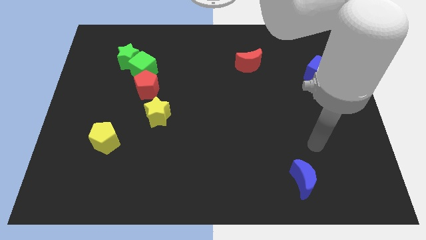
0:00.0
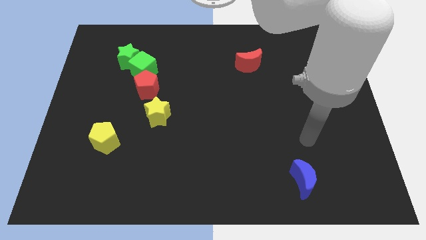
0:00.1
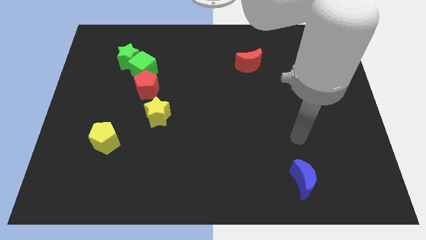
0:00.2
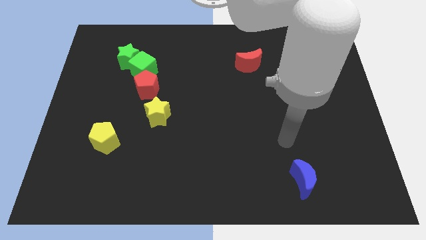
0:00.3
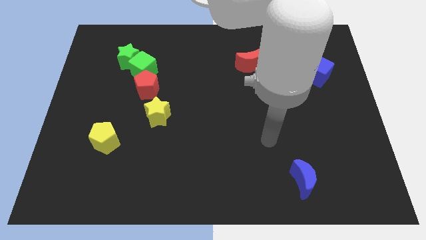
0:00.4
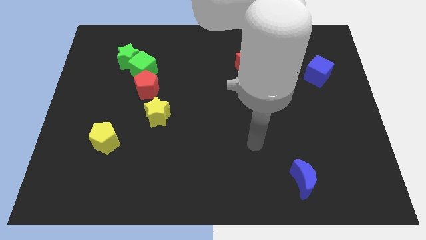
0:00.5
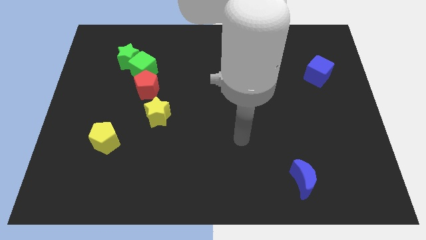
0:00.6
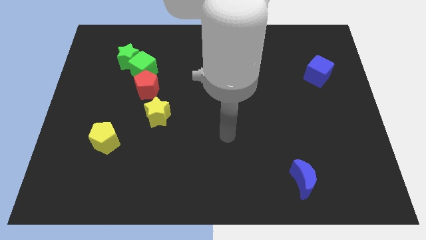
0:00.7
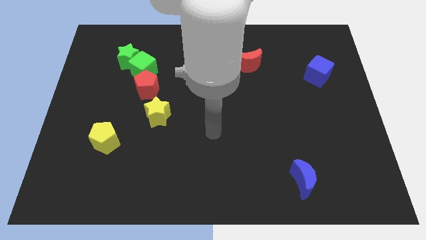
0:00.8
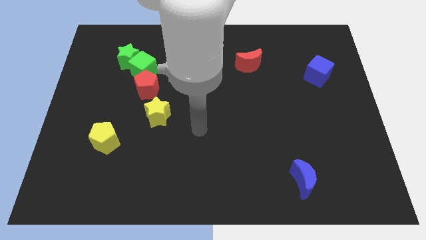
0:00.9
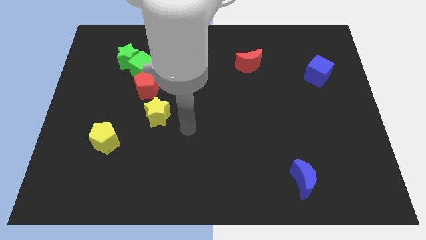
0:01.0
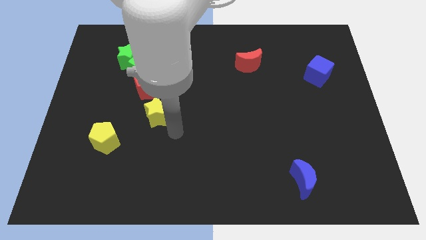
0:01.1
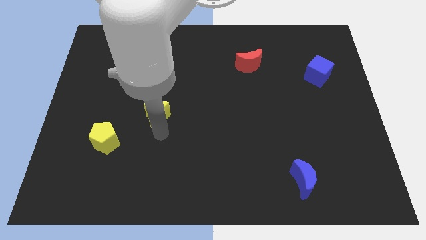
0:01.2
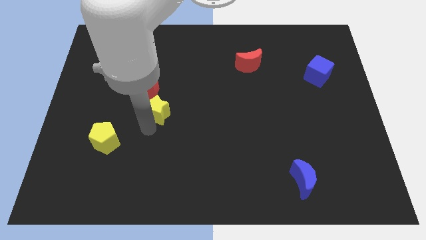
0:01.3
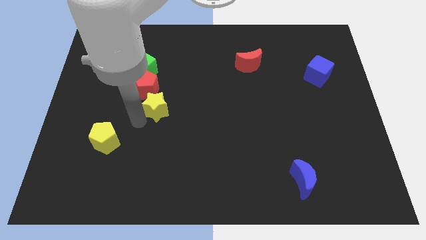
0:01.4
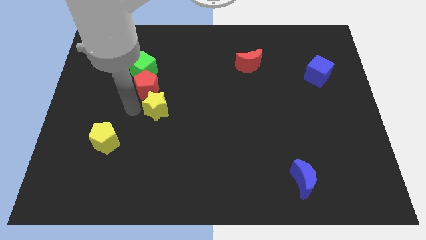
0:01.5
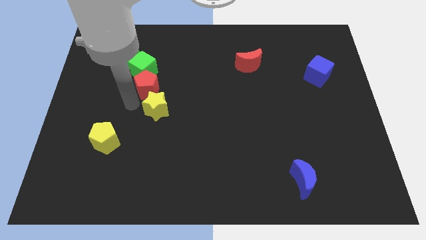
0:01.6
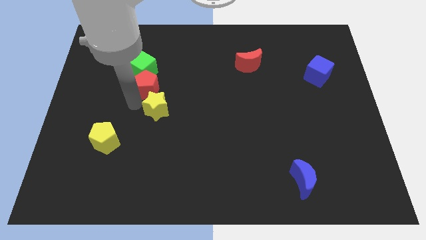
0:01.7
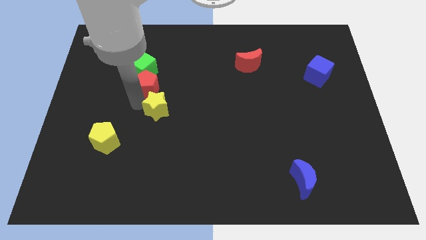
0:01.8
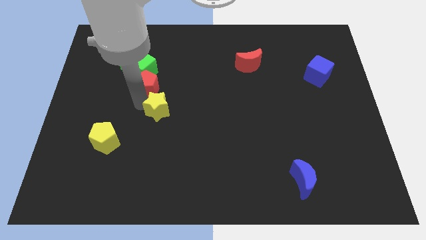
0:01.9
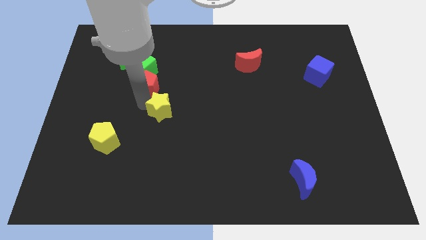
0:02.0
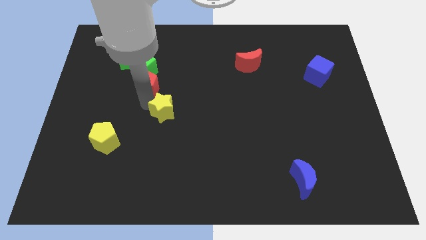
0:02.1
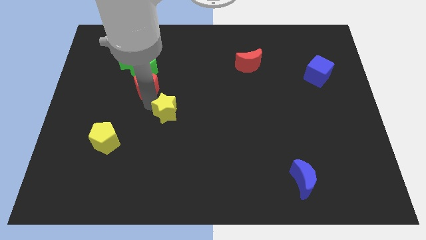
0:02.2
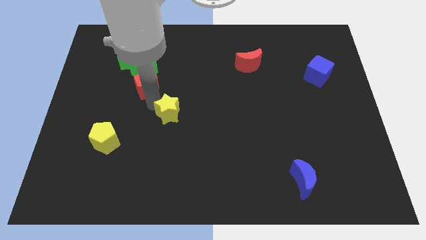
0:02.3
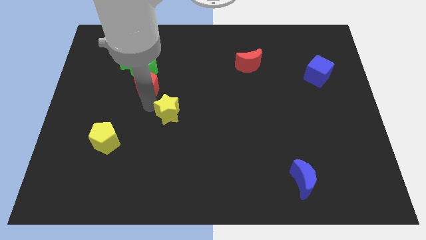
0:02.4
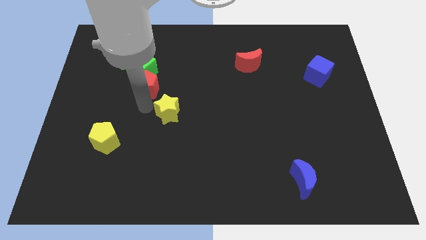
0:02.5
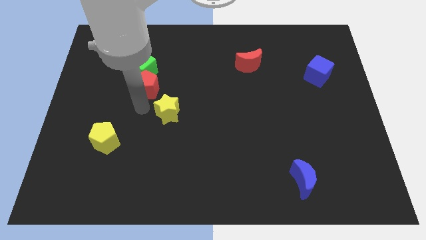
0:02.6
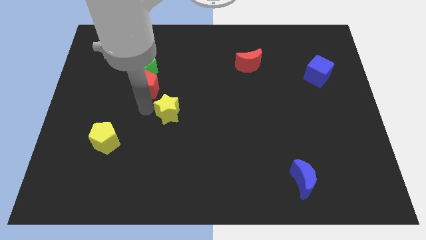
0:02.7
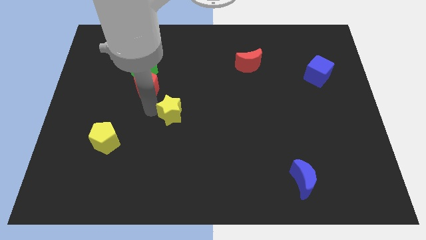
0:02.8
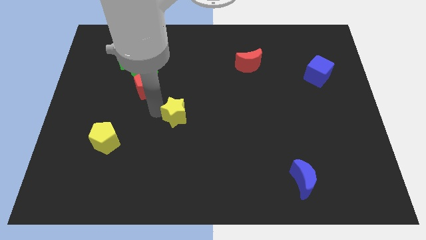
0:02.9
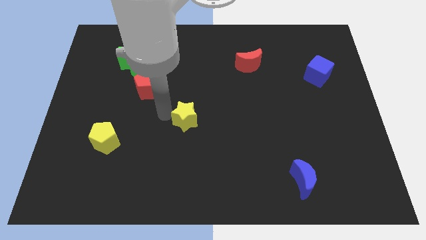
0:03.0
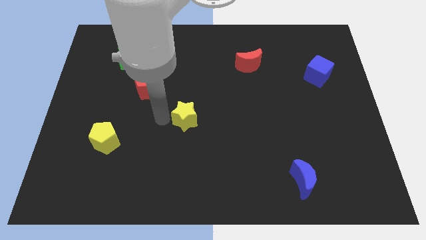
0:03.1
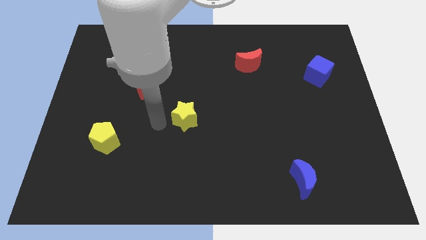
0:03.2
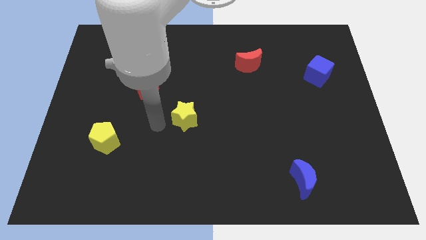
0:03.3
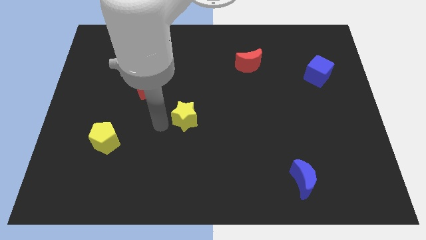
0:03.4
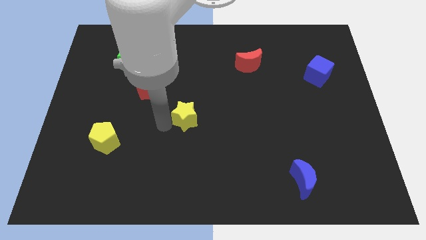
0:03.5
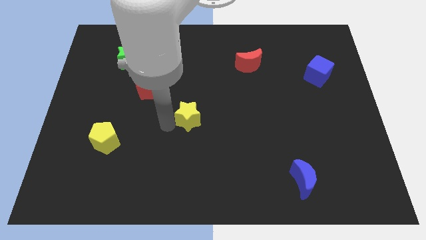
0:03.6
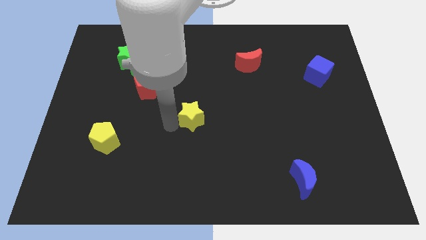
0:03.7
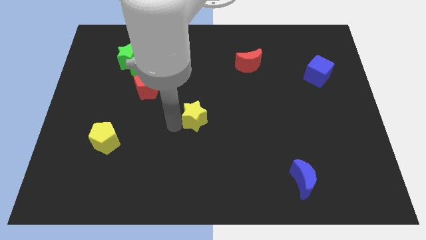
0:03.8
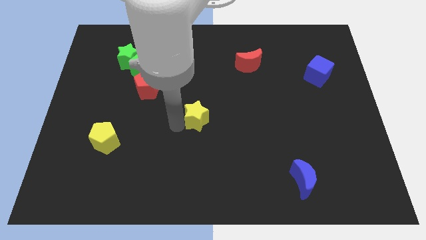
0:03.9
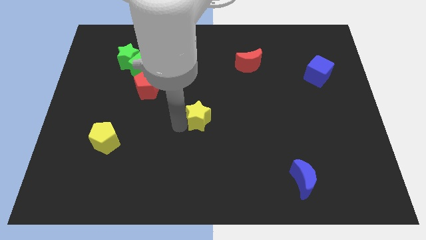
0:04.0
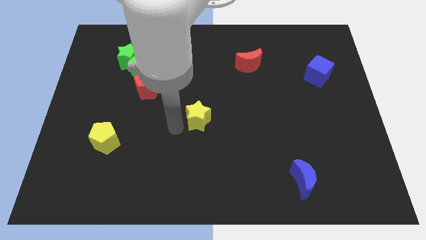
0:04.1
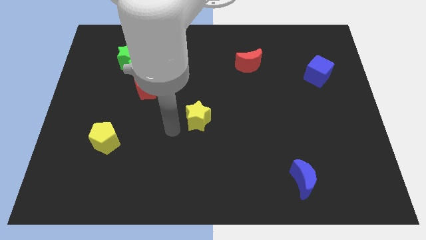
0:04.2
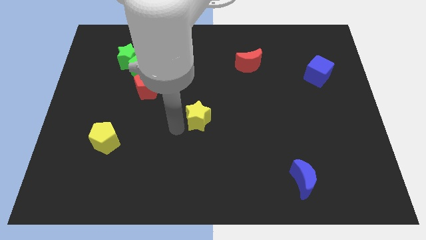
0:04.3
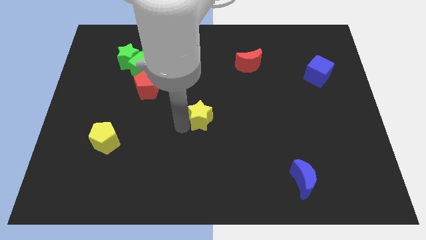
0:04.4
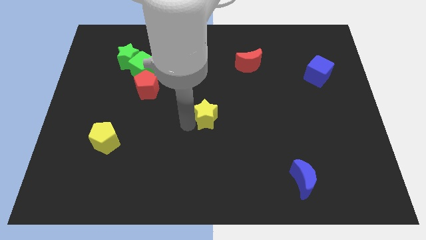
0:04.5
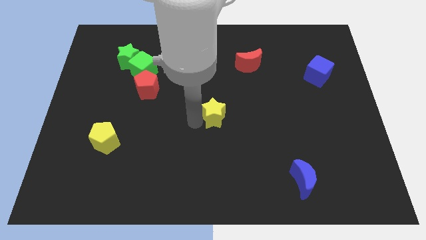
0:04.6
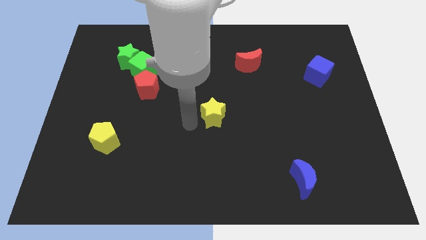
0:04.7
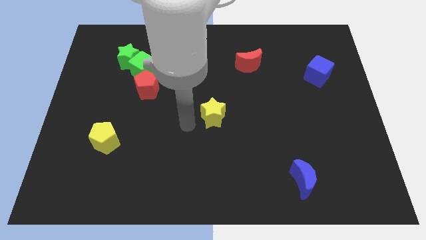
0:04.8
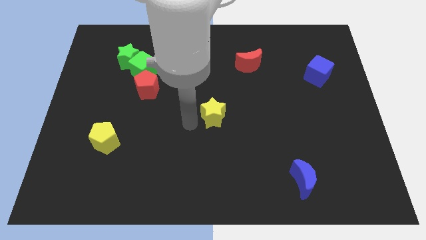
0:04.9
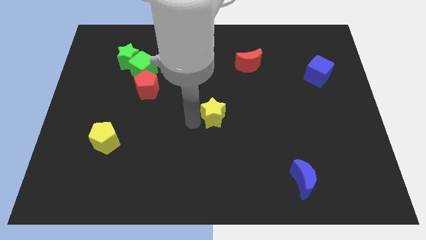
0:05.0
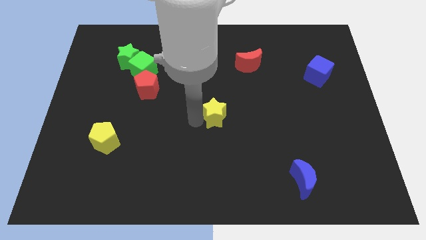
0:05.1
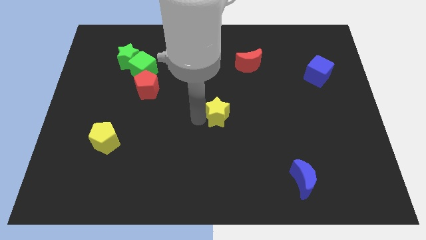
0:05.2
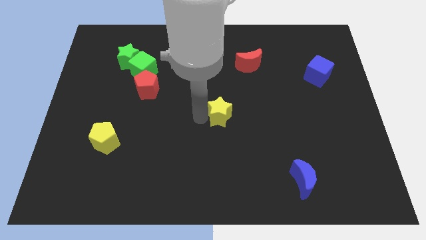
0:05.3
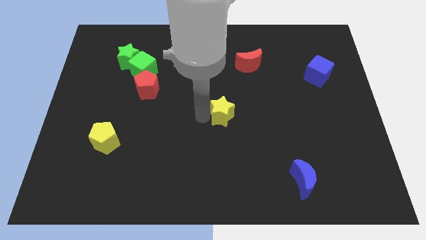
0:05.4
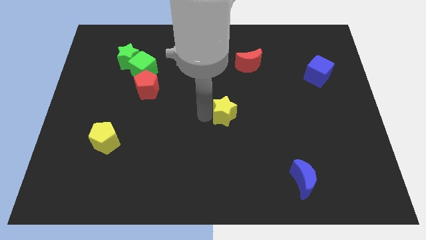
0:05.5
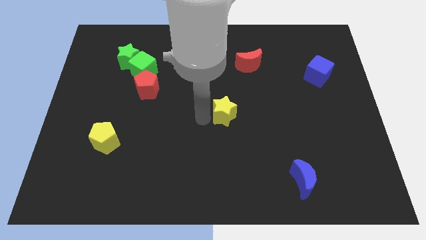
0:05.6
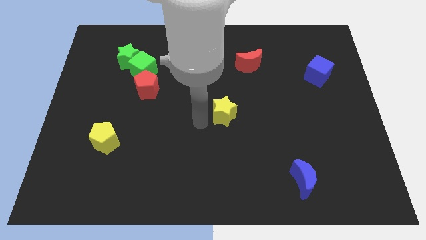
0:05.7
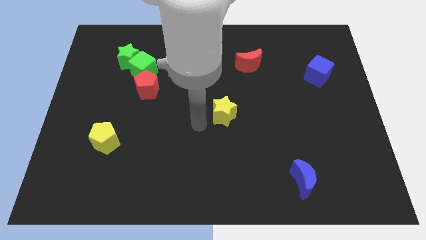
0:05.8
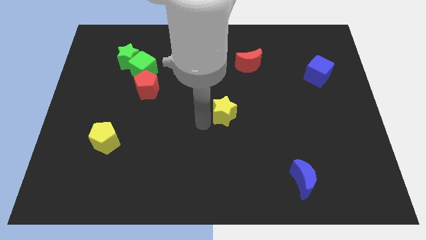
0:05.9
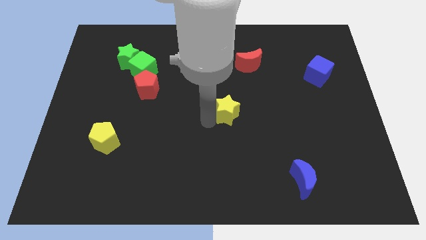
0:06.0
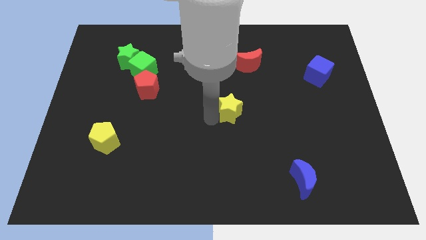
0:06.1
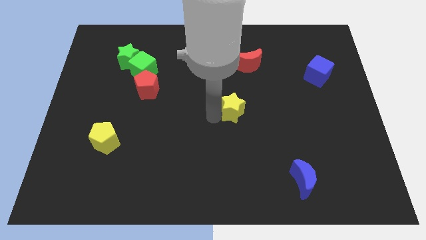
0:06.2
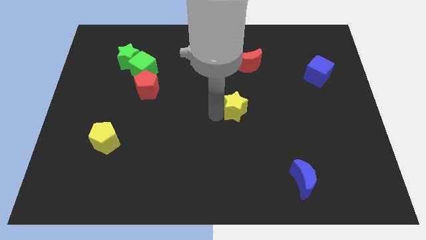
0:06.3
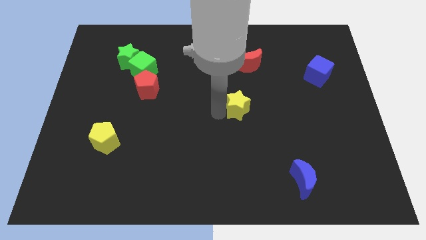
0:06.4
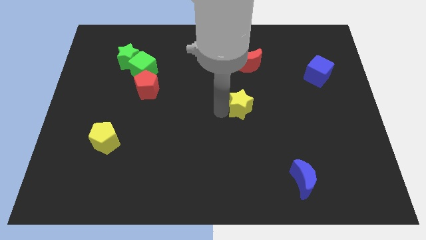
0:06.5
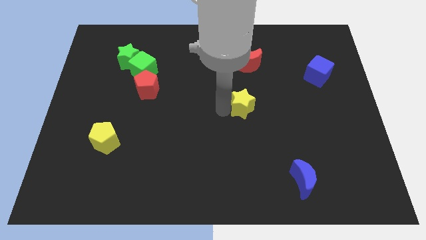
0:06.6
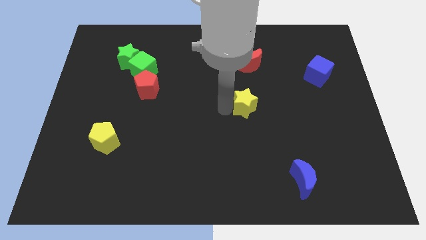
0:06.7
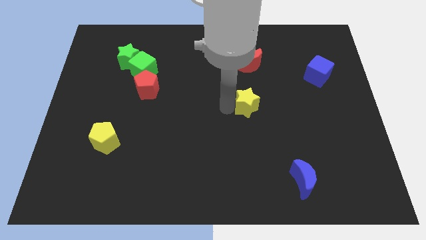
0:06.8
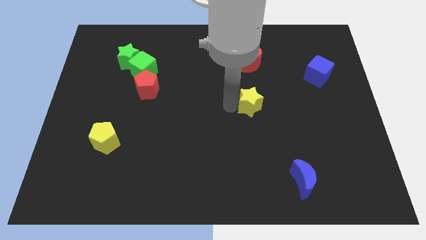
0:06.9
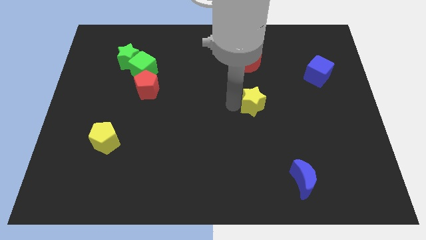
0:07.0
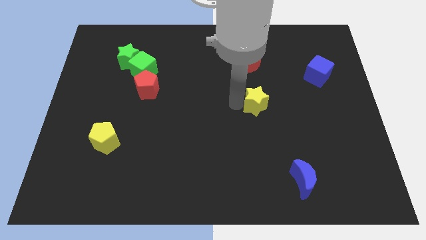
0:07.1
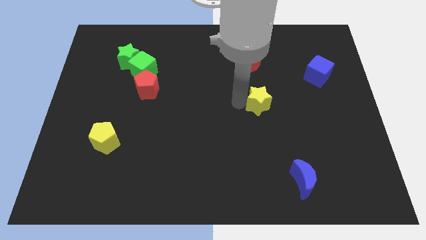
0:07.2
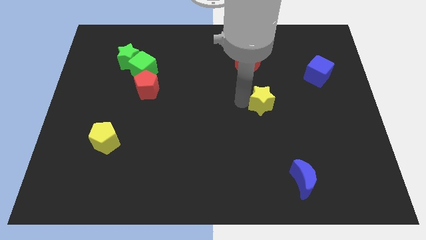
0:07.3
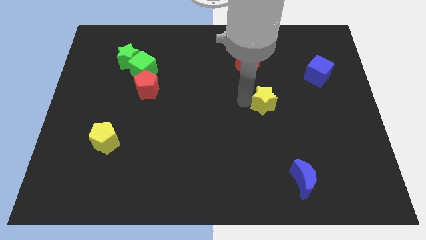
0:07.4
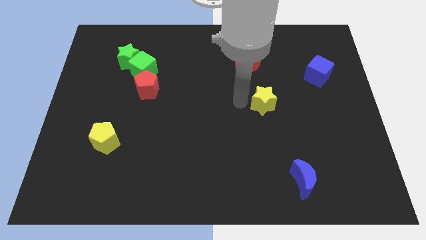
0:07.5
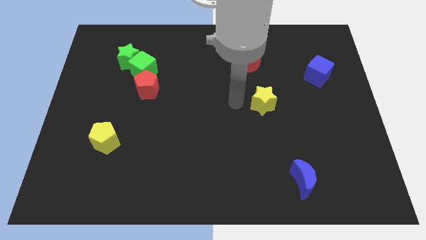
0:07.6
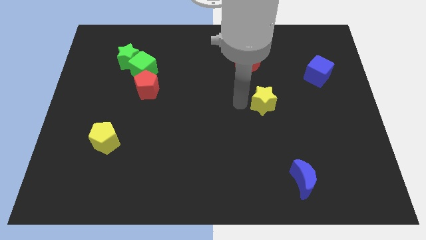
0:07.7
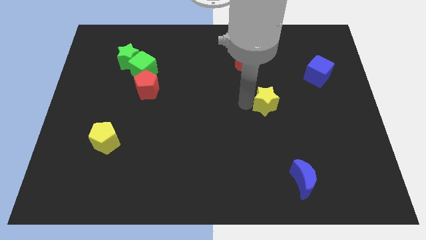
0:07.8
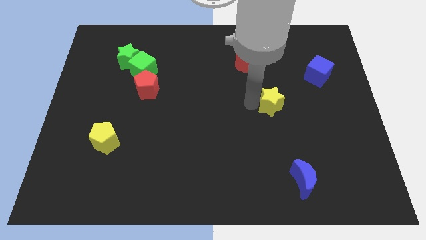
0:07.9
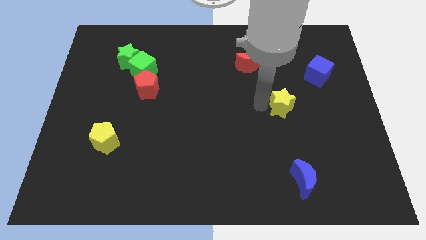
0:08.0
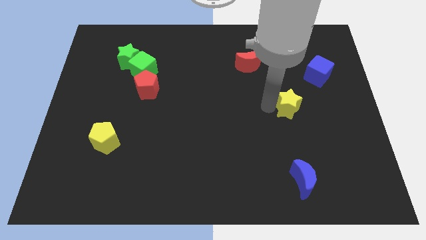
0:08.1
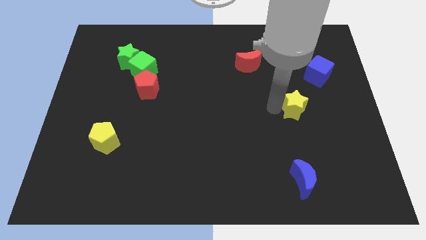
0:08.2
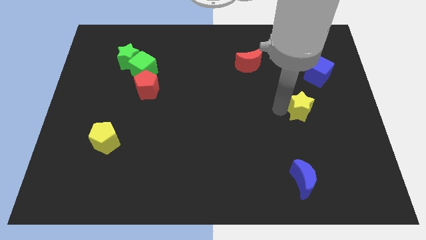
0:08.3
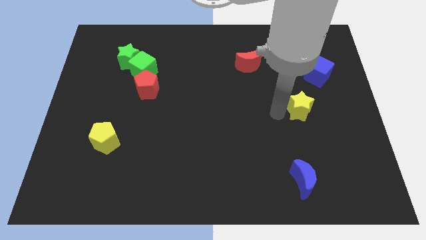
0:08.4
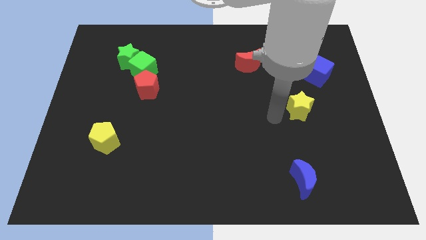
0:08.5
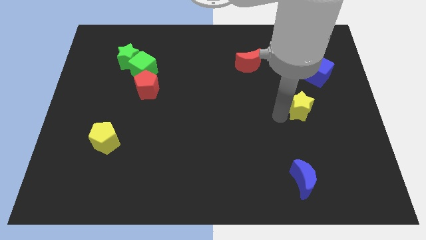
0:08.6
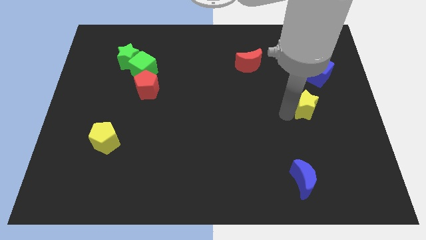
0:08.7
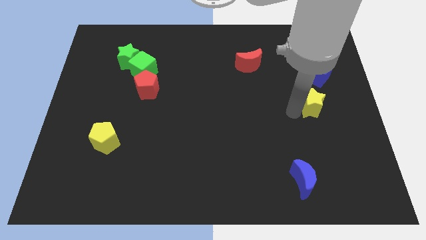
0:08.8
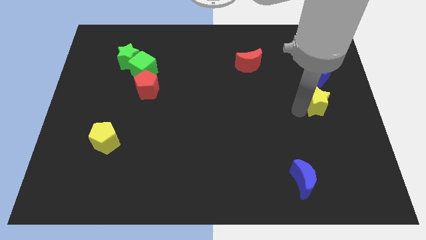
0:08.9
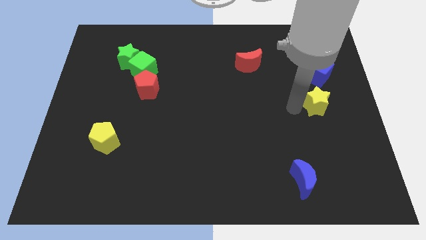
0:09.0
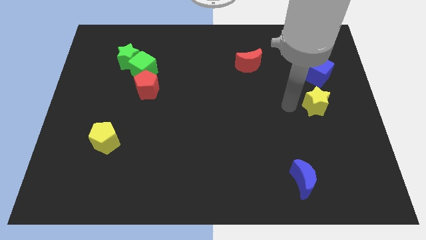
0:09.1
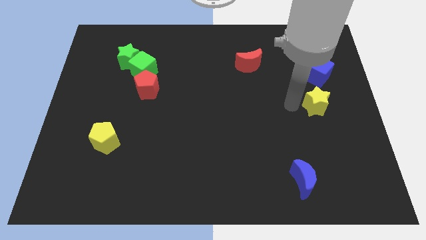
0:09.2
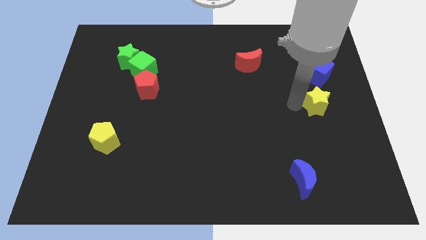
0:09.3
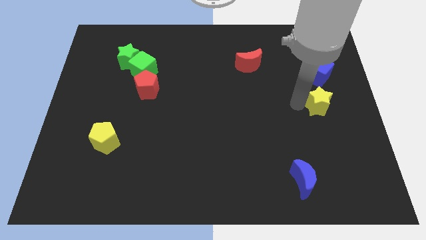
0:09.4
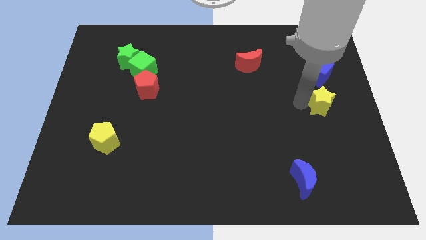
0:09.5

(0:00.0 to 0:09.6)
push the yellow star to the right side of the board
